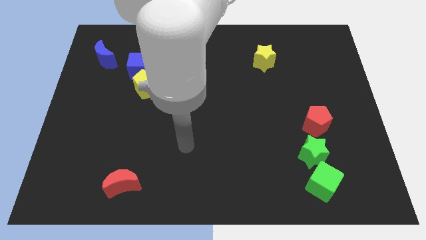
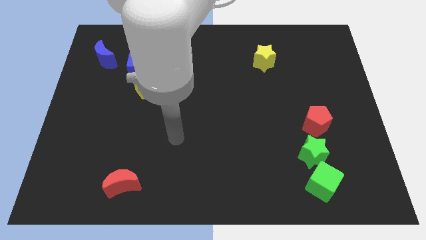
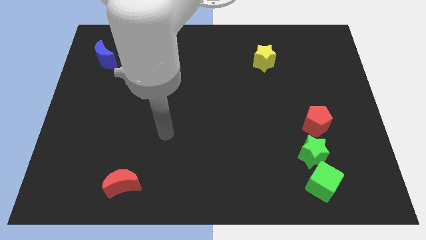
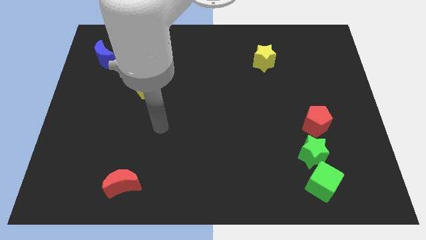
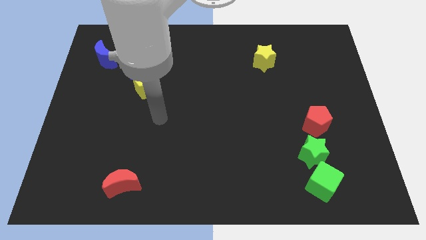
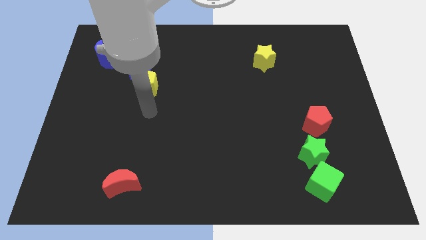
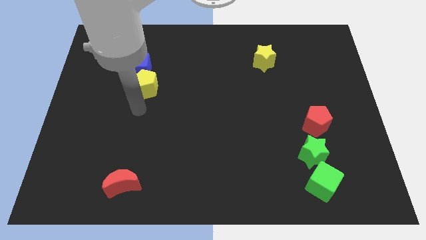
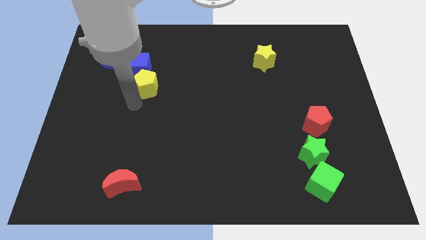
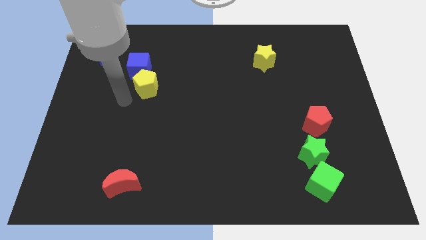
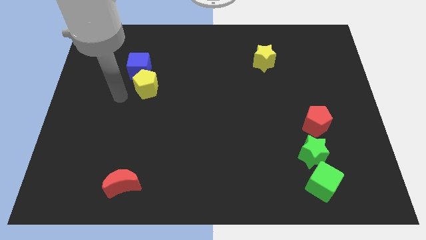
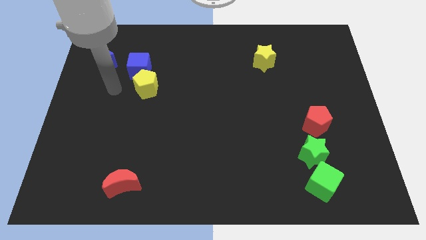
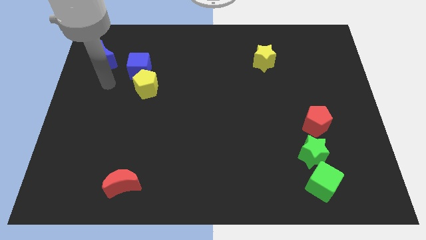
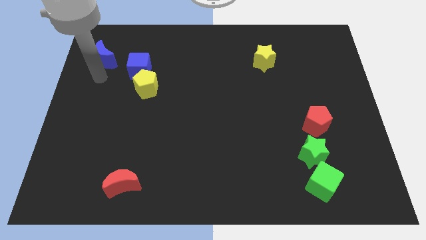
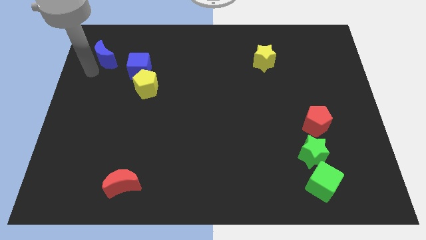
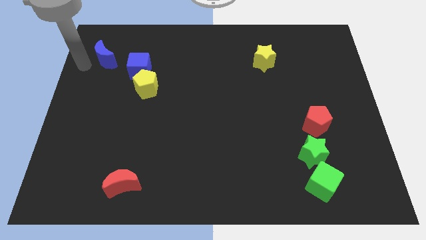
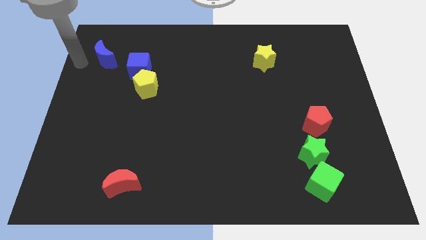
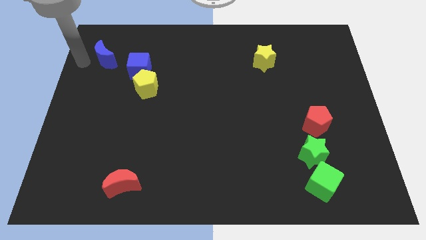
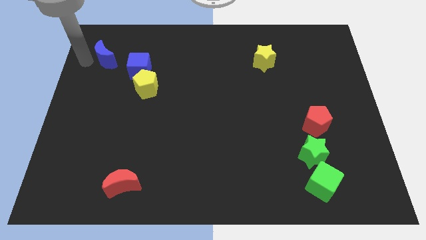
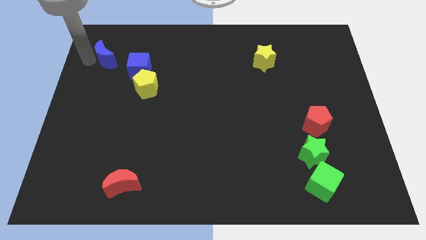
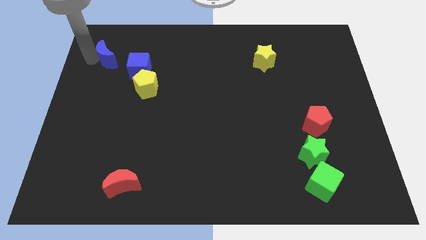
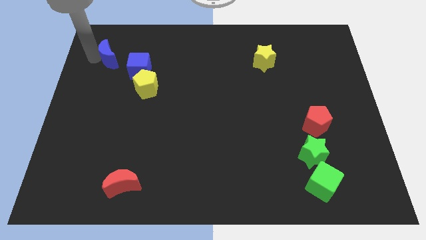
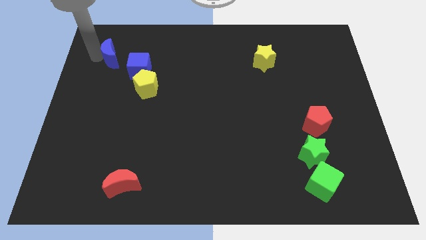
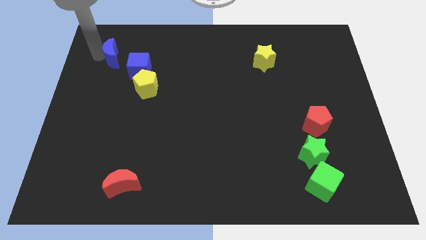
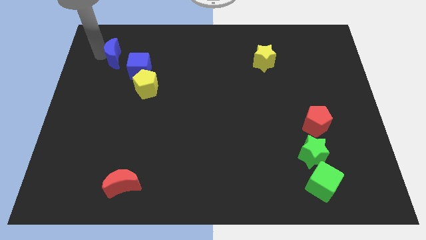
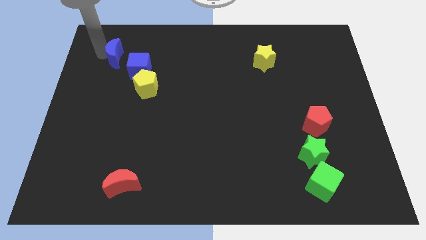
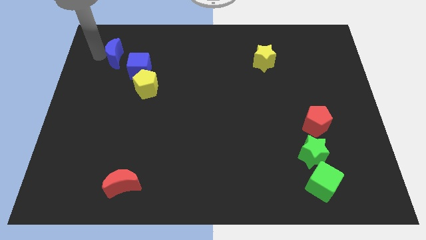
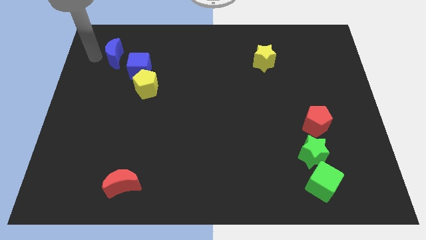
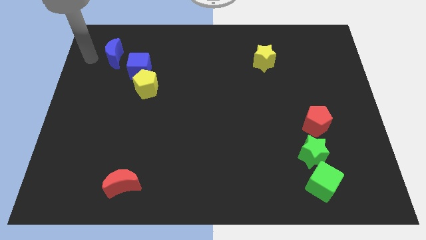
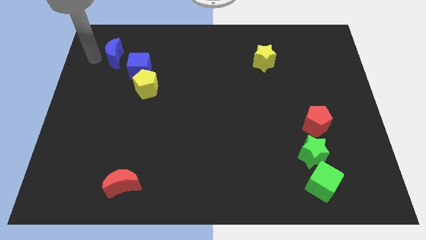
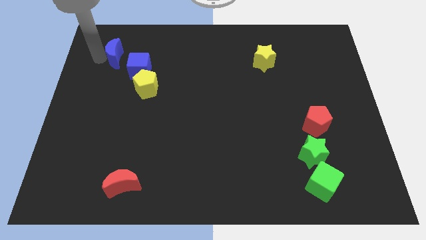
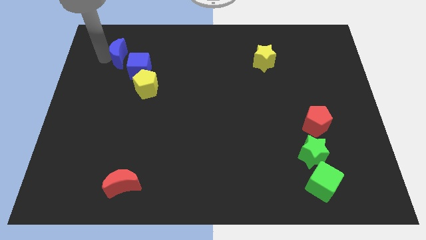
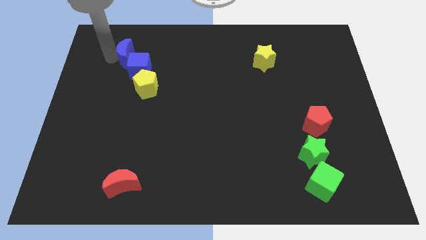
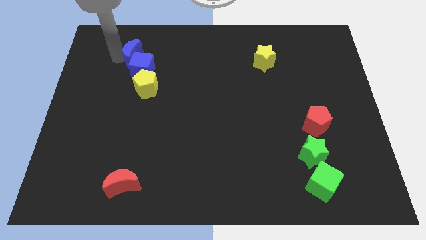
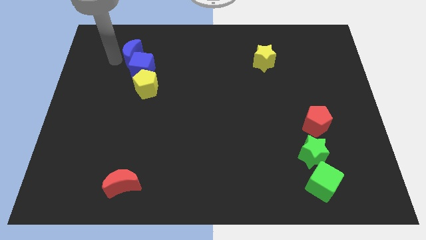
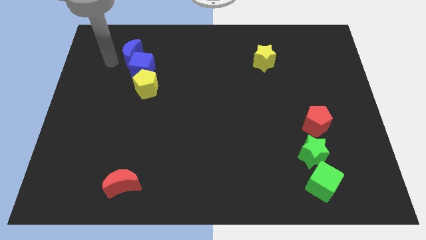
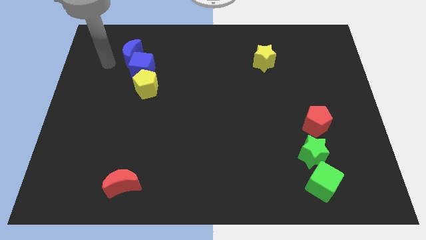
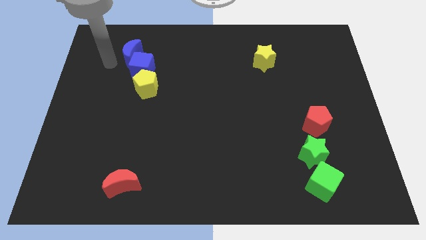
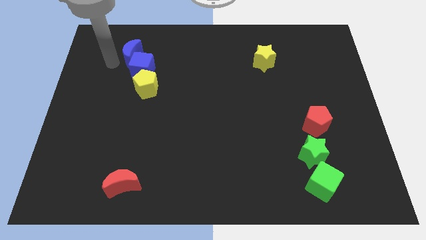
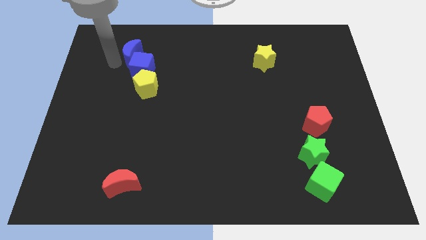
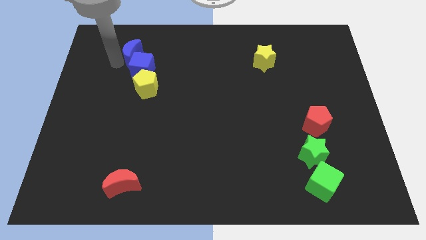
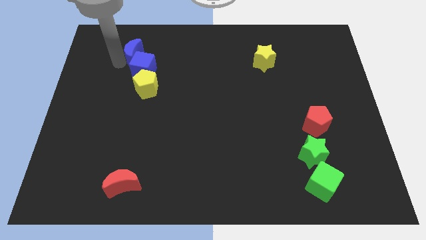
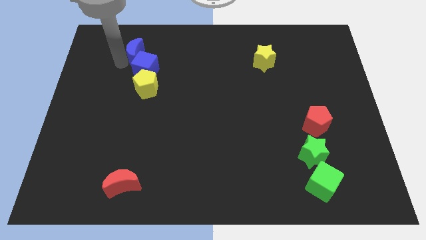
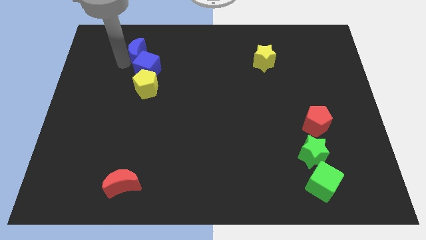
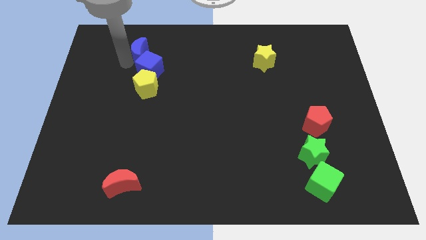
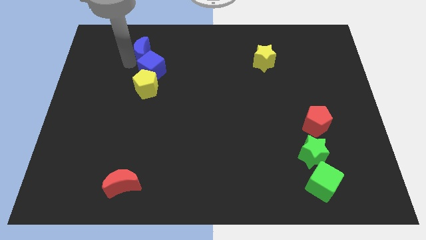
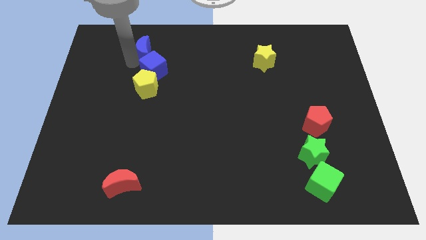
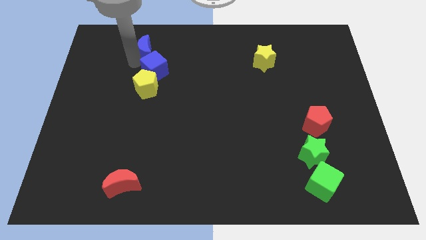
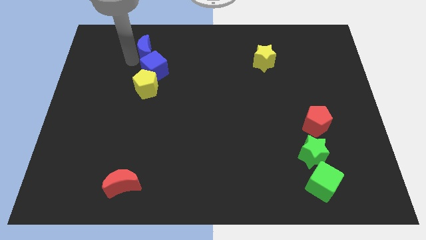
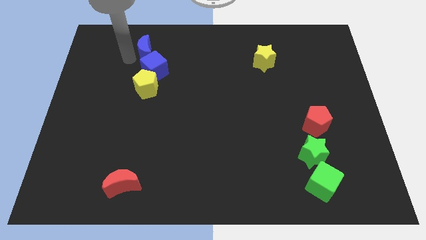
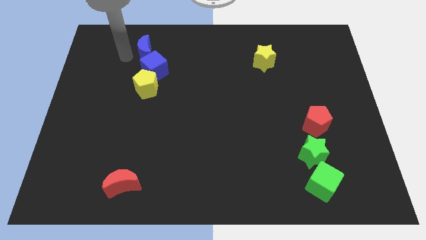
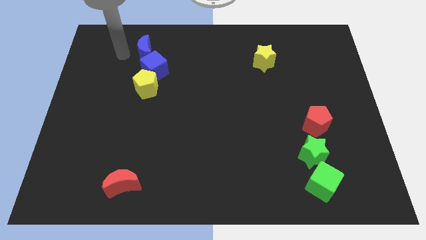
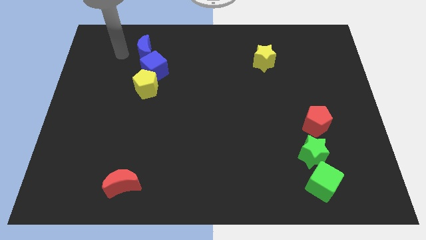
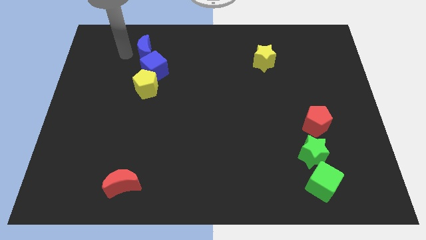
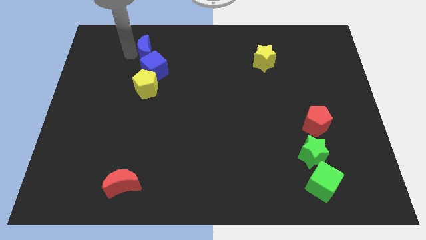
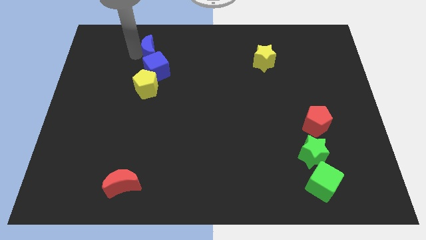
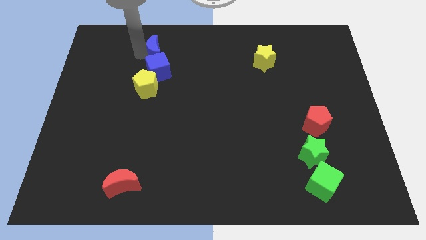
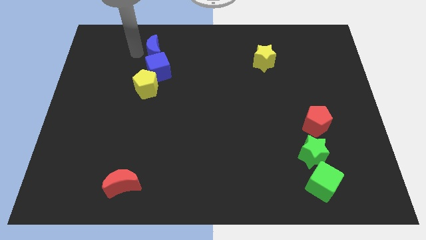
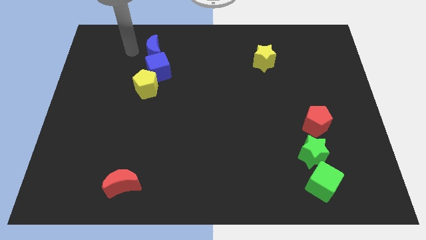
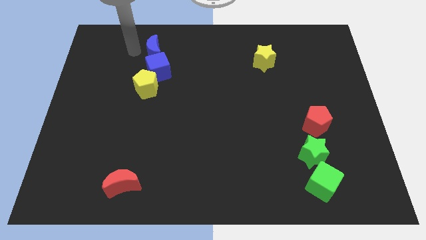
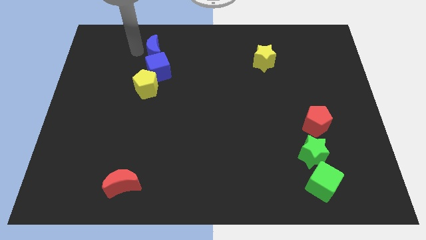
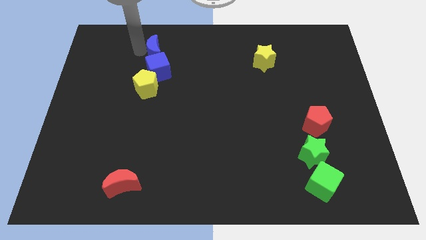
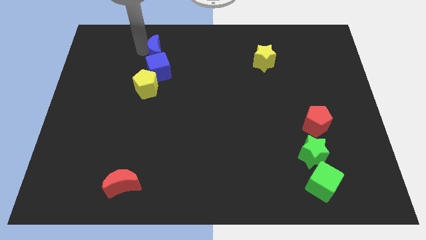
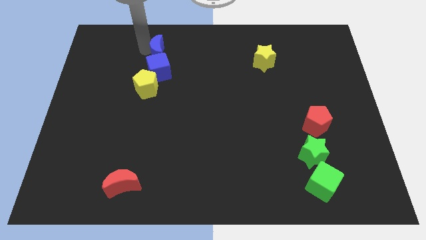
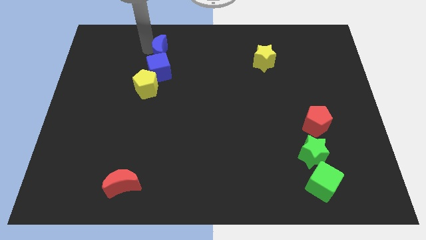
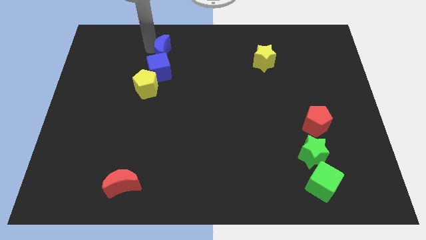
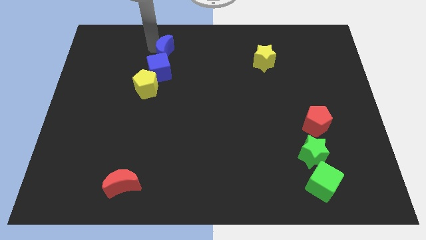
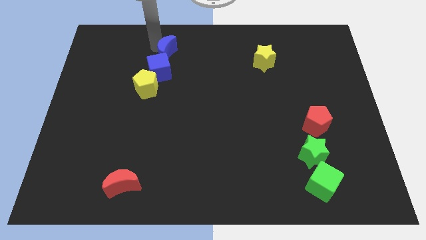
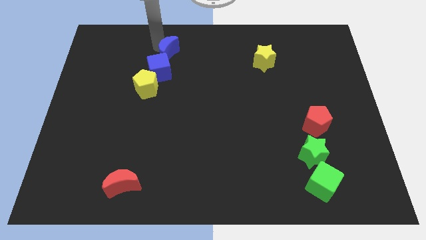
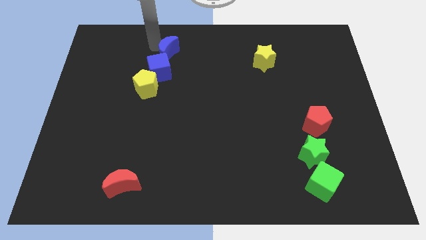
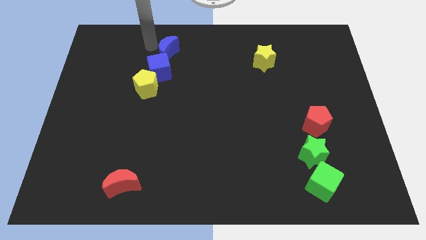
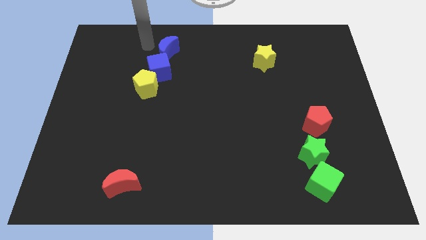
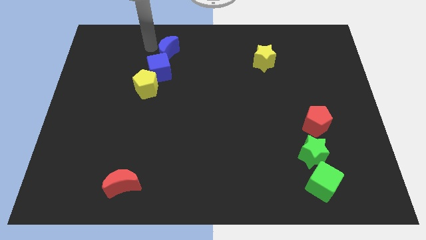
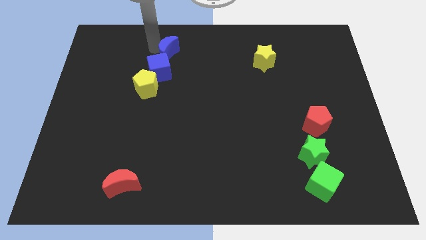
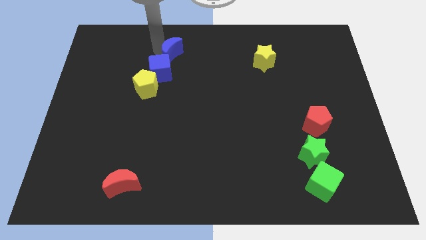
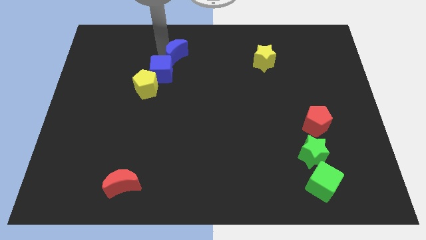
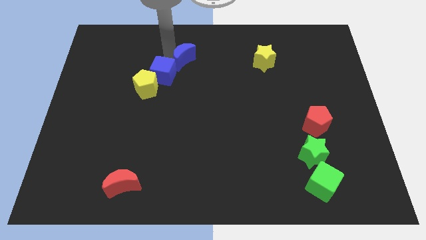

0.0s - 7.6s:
slide the blue moon to the right
